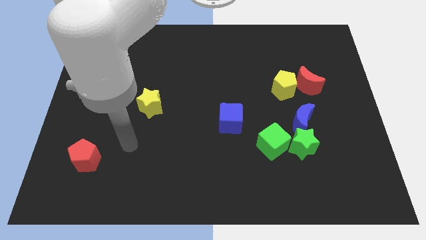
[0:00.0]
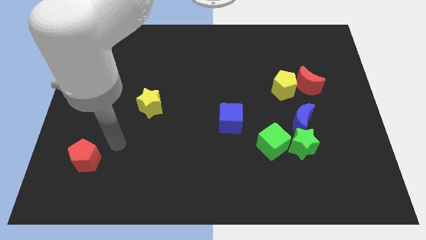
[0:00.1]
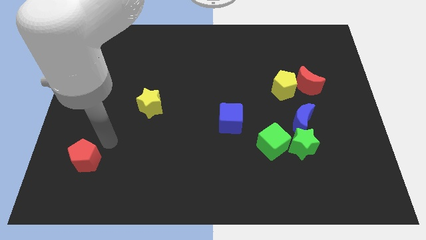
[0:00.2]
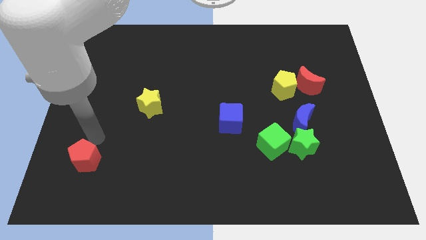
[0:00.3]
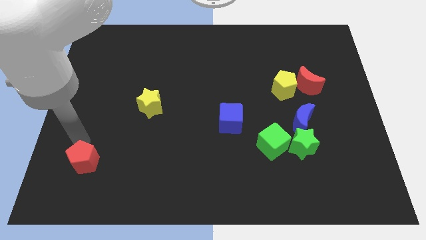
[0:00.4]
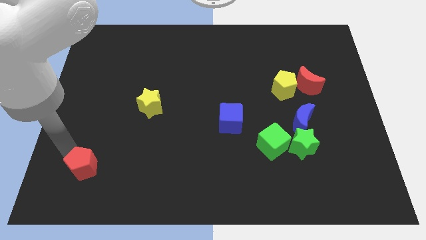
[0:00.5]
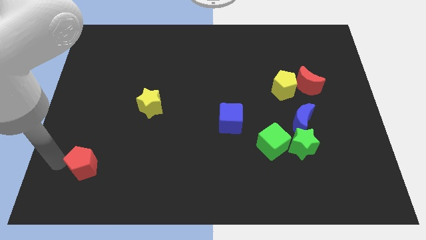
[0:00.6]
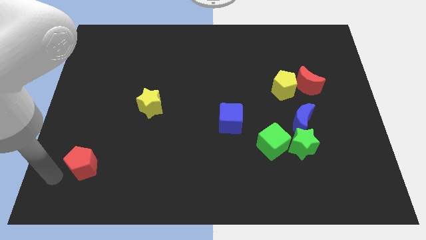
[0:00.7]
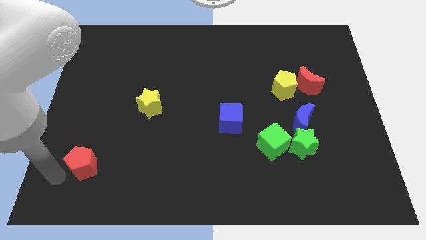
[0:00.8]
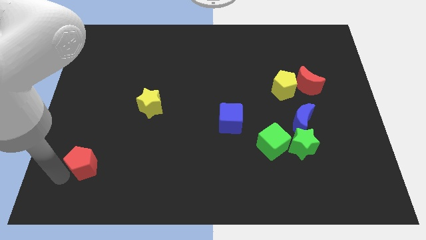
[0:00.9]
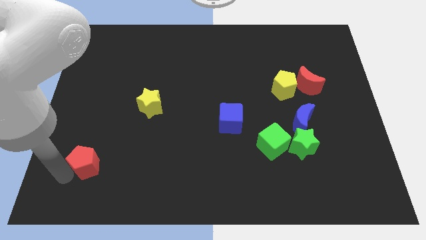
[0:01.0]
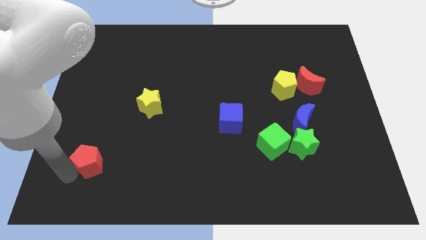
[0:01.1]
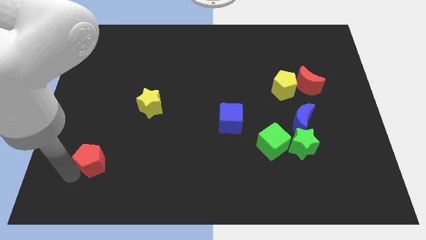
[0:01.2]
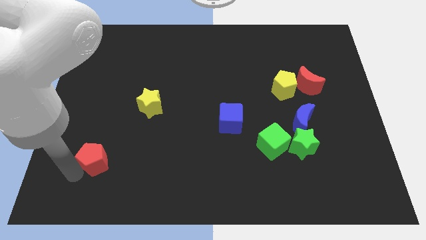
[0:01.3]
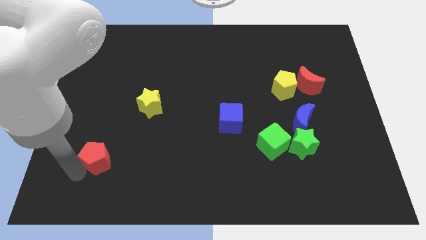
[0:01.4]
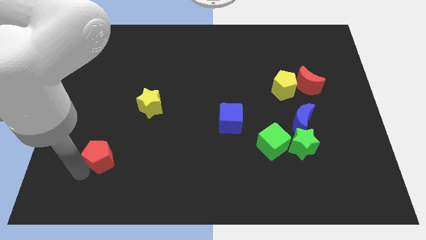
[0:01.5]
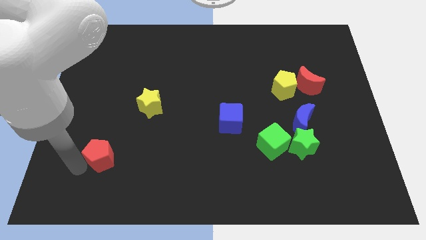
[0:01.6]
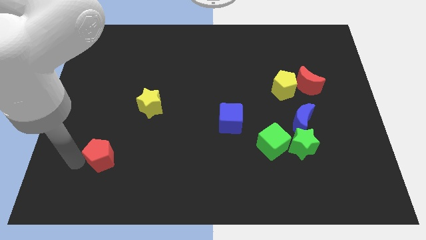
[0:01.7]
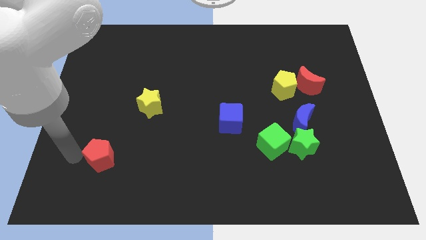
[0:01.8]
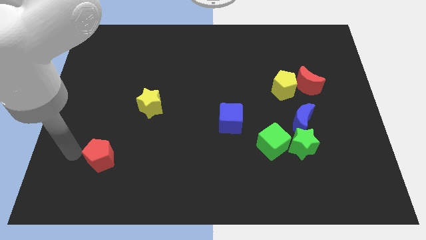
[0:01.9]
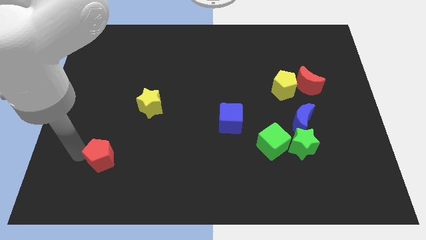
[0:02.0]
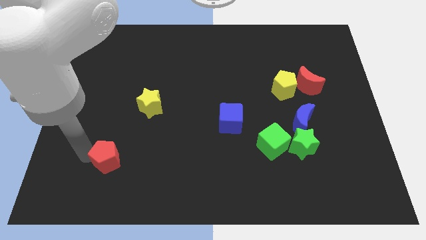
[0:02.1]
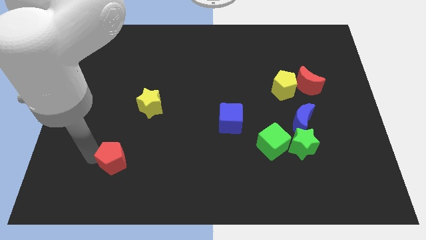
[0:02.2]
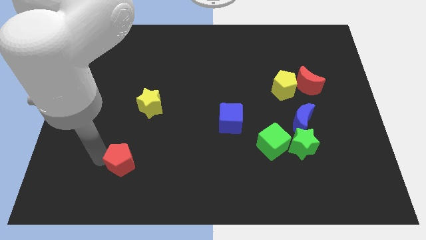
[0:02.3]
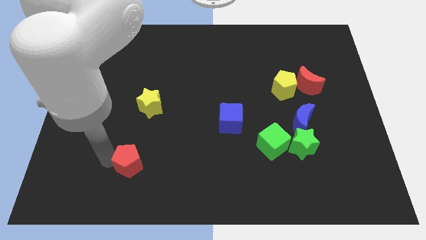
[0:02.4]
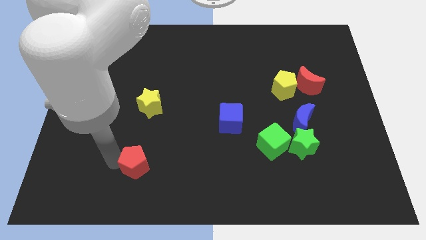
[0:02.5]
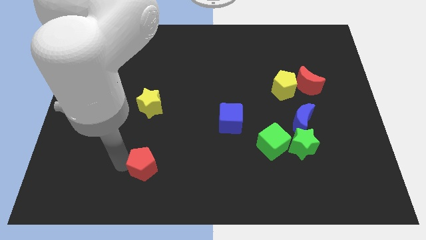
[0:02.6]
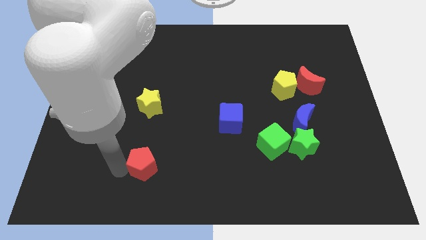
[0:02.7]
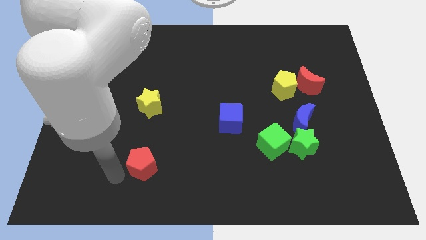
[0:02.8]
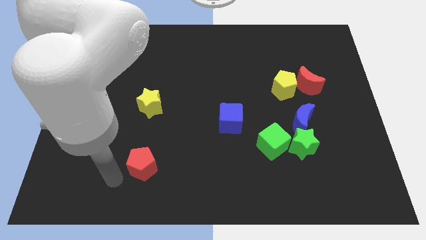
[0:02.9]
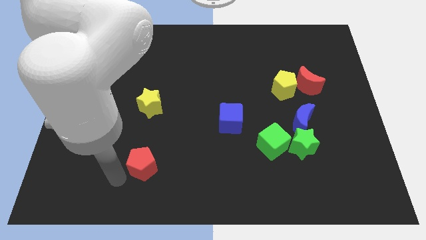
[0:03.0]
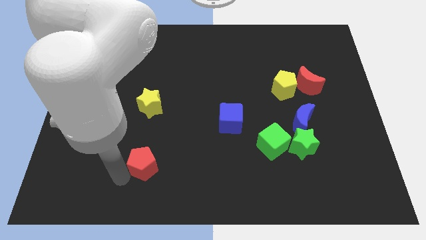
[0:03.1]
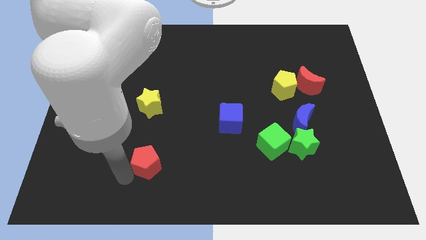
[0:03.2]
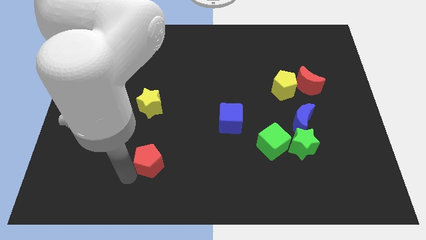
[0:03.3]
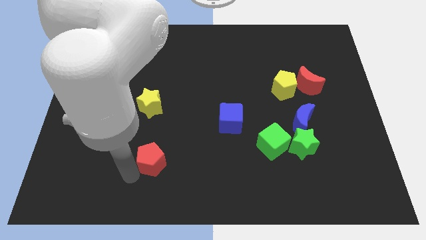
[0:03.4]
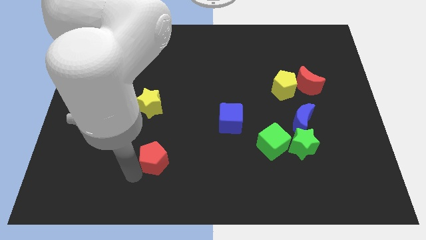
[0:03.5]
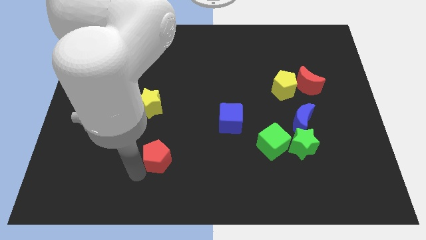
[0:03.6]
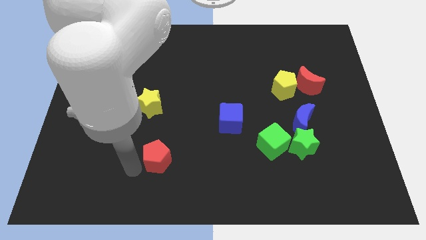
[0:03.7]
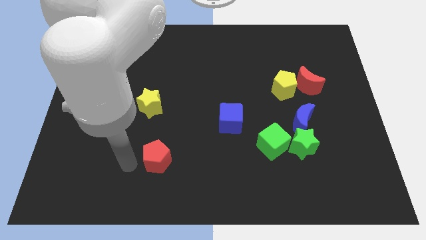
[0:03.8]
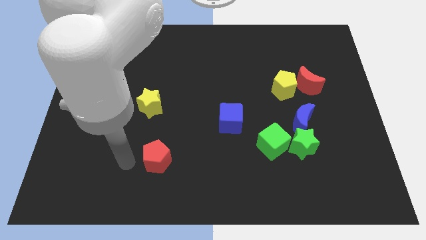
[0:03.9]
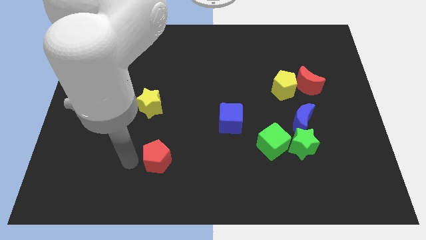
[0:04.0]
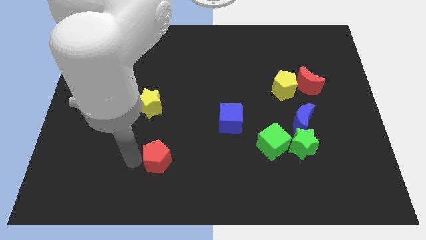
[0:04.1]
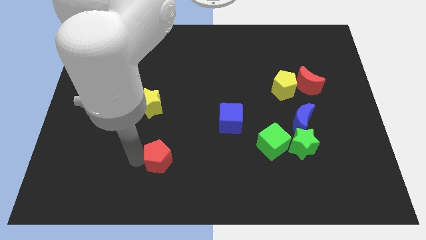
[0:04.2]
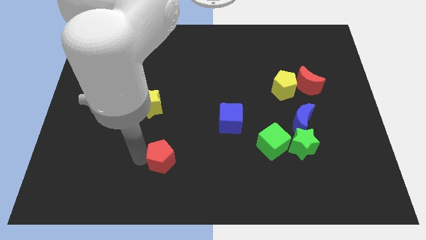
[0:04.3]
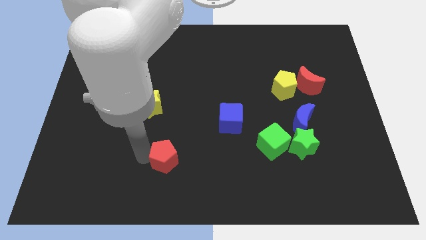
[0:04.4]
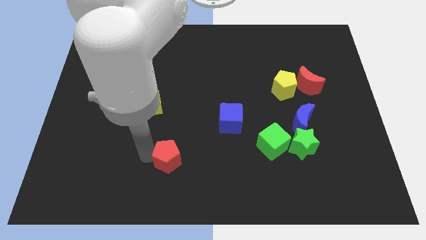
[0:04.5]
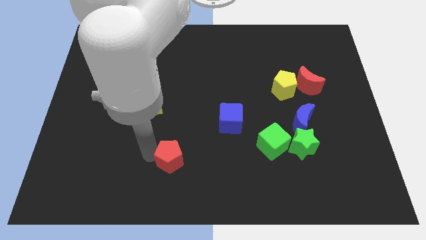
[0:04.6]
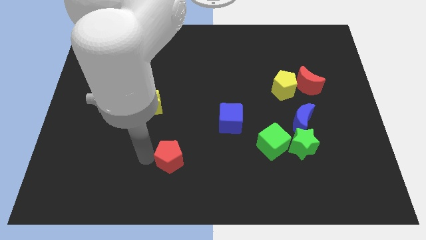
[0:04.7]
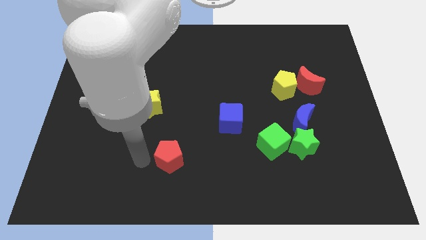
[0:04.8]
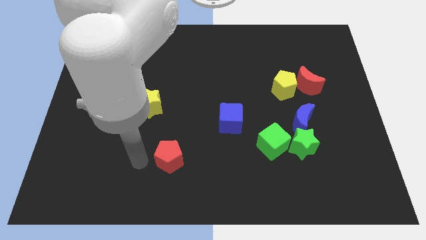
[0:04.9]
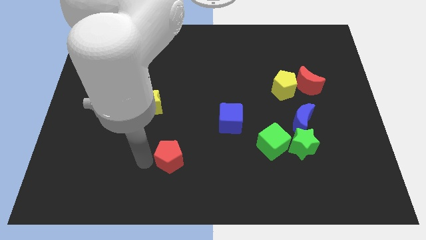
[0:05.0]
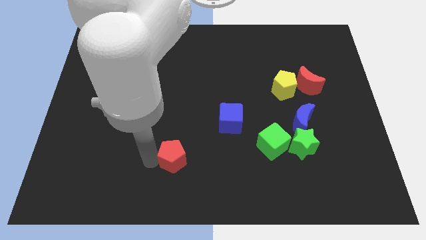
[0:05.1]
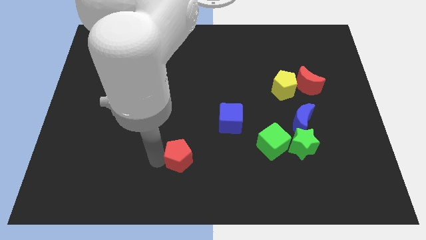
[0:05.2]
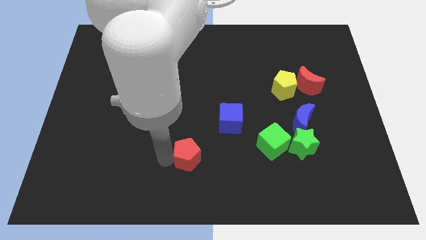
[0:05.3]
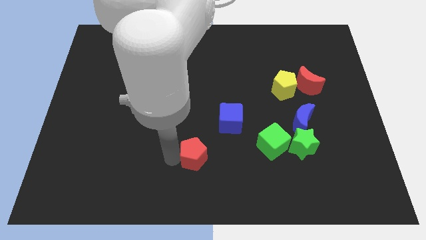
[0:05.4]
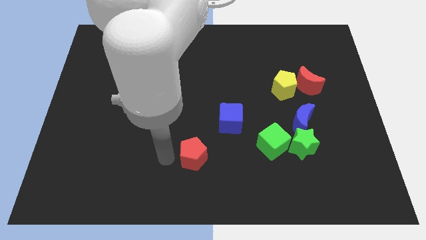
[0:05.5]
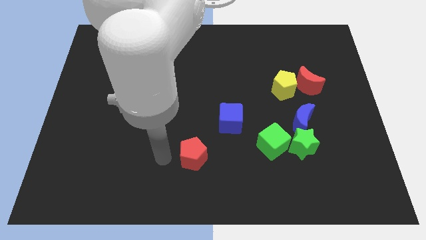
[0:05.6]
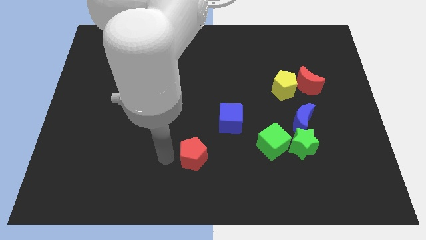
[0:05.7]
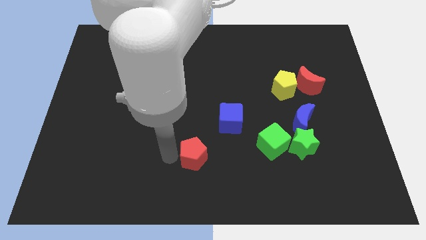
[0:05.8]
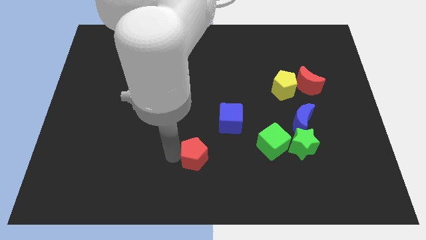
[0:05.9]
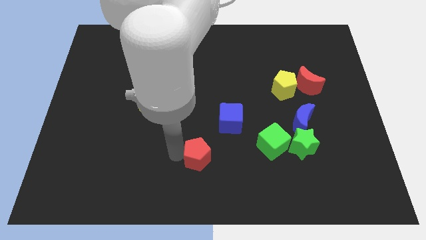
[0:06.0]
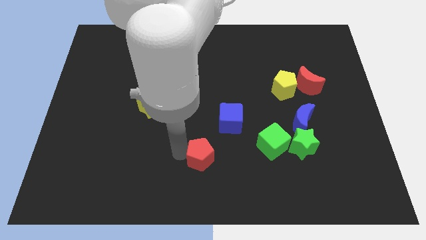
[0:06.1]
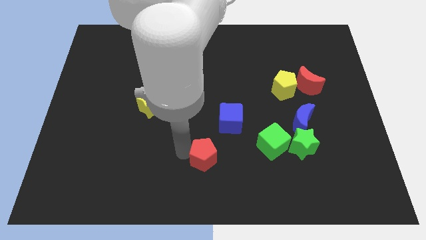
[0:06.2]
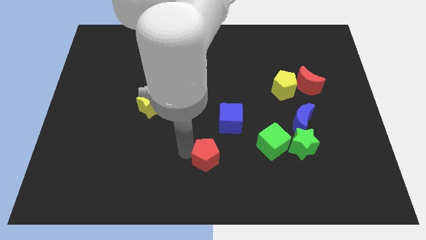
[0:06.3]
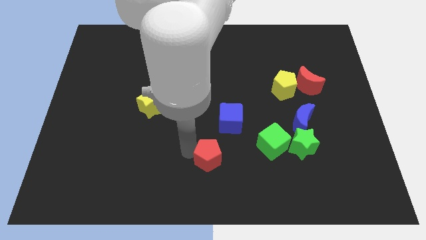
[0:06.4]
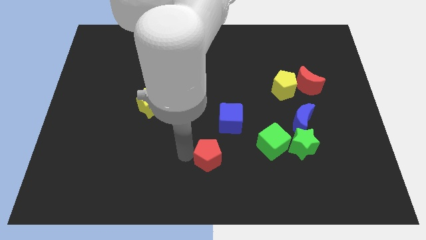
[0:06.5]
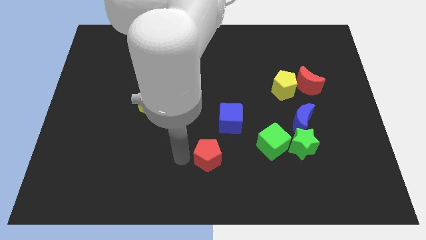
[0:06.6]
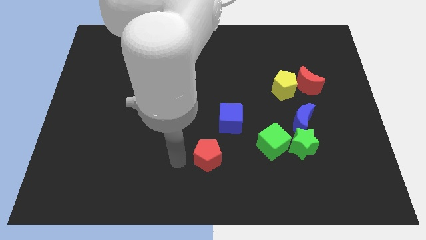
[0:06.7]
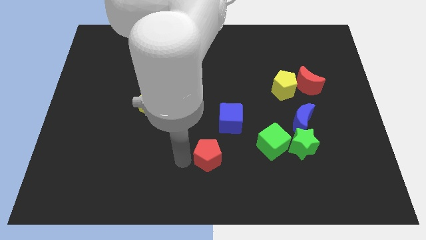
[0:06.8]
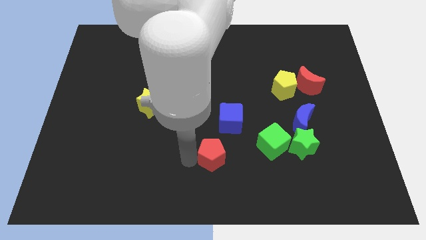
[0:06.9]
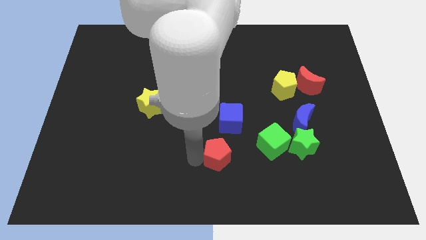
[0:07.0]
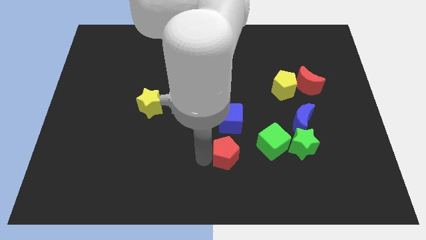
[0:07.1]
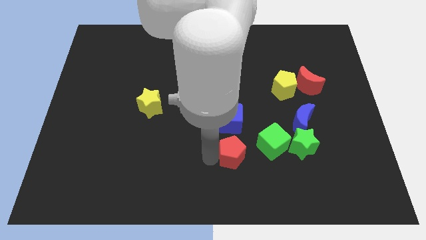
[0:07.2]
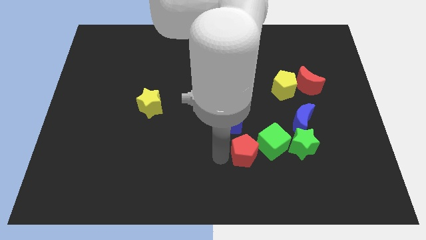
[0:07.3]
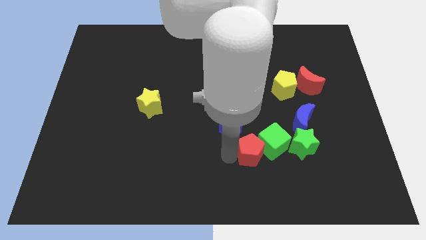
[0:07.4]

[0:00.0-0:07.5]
move the red pentagon to the green cube
